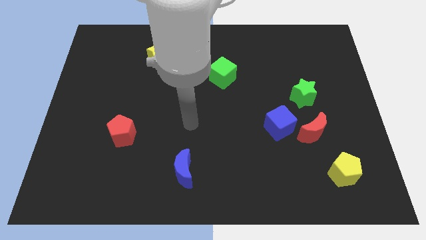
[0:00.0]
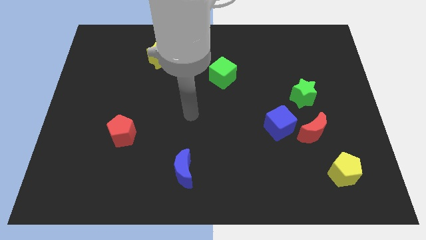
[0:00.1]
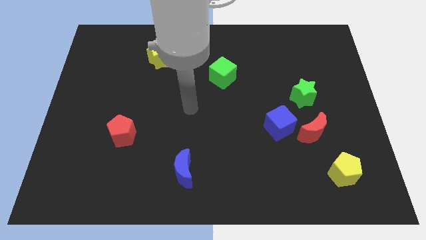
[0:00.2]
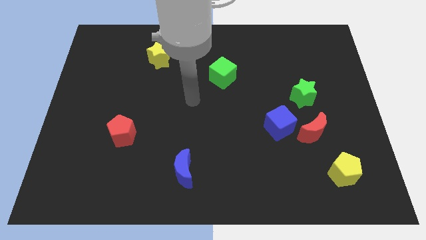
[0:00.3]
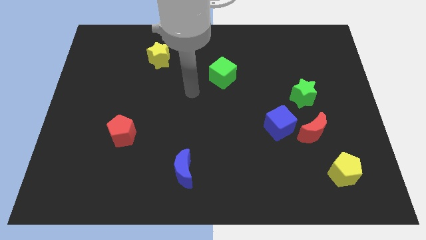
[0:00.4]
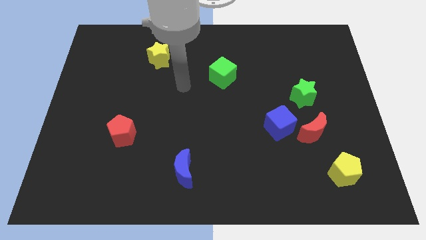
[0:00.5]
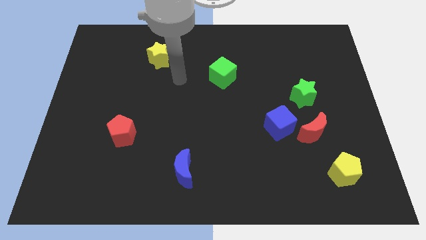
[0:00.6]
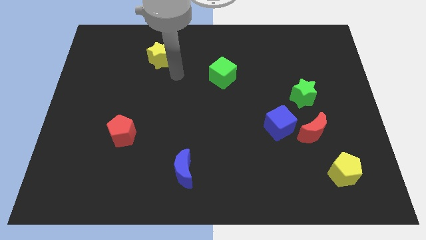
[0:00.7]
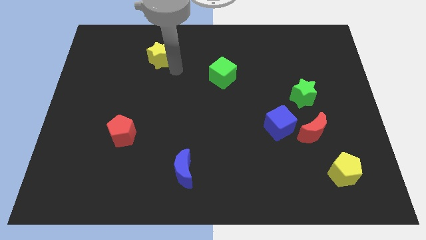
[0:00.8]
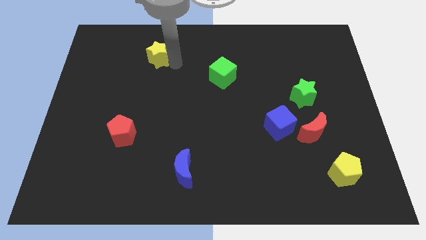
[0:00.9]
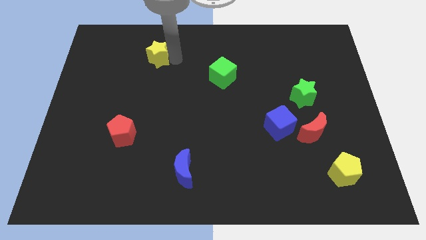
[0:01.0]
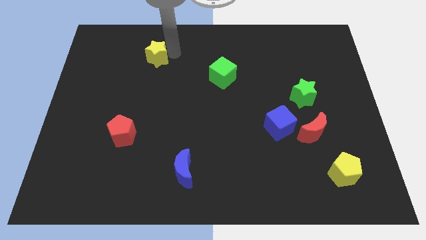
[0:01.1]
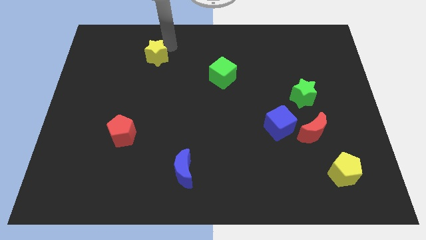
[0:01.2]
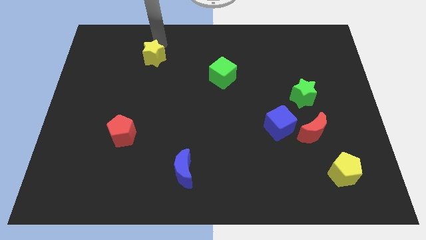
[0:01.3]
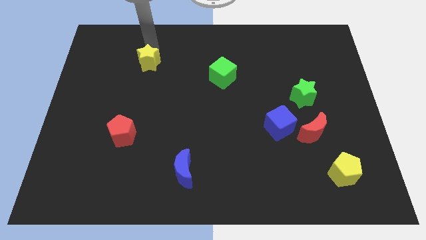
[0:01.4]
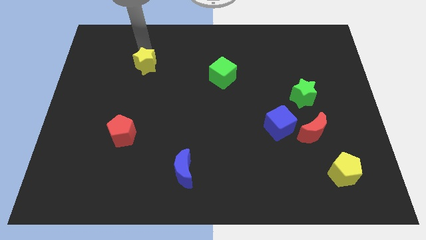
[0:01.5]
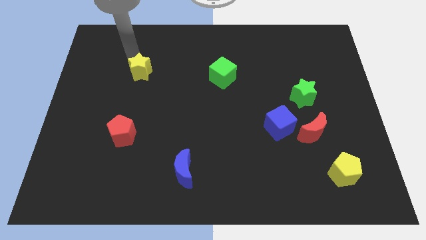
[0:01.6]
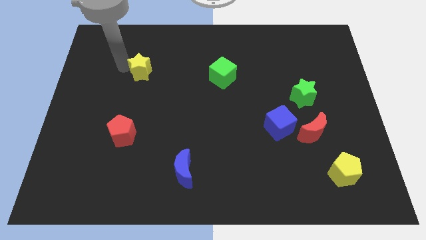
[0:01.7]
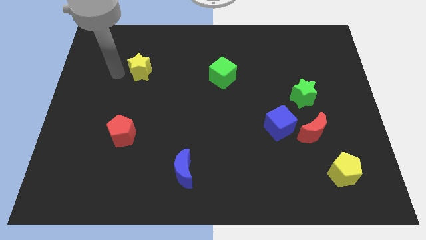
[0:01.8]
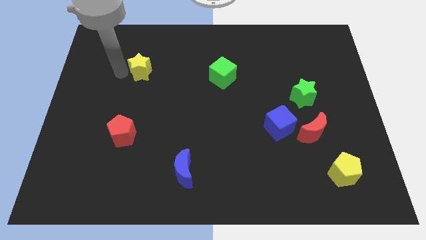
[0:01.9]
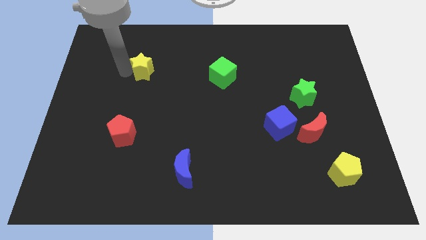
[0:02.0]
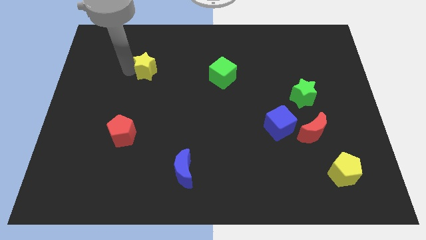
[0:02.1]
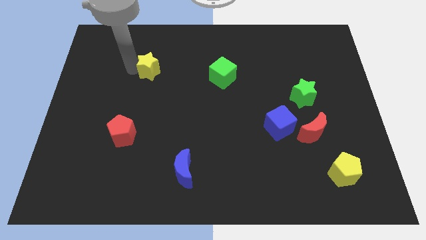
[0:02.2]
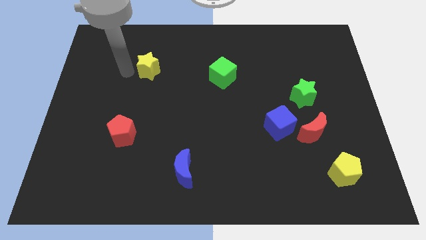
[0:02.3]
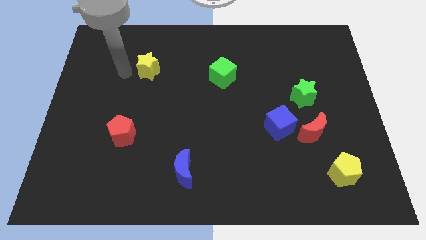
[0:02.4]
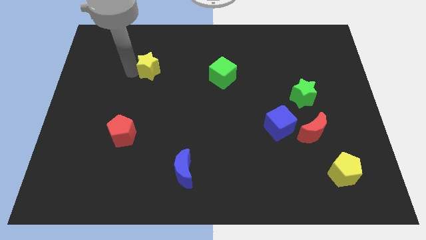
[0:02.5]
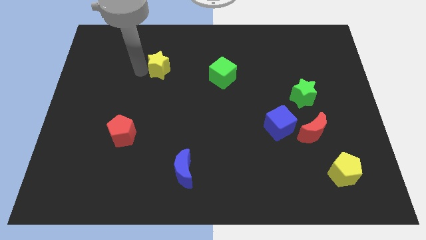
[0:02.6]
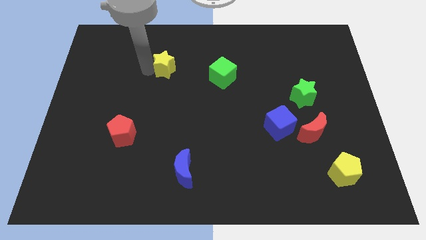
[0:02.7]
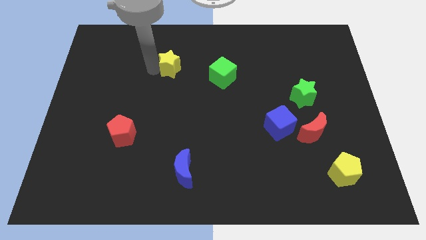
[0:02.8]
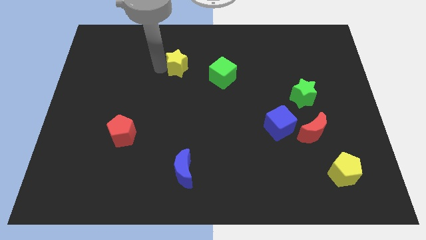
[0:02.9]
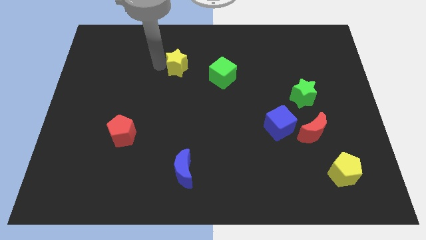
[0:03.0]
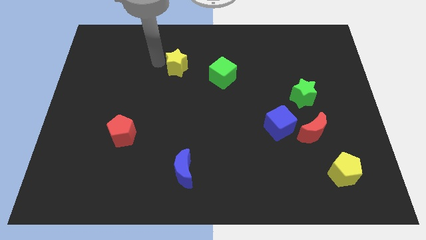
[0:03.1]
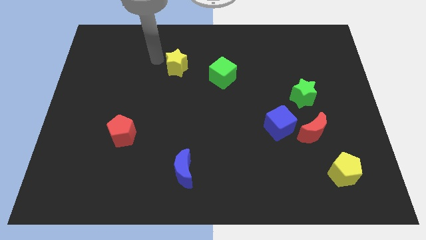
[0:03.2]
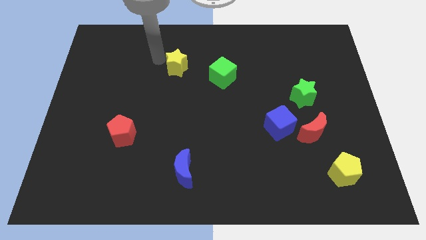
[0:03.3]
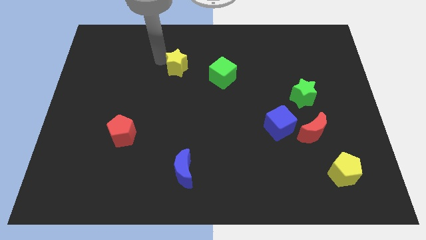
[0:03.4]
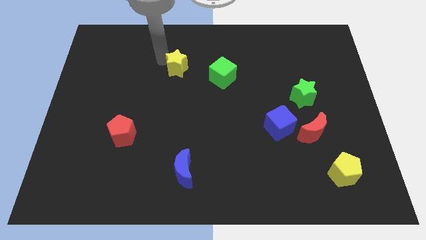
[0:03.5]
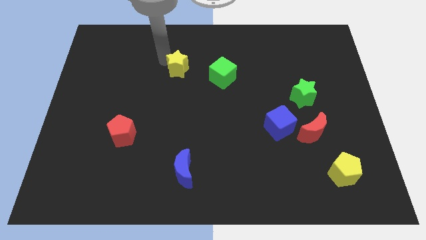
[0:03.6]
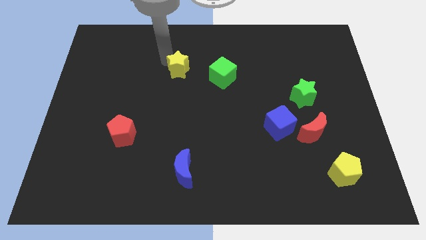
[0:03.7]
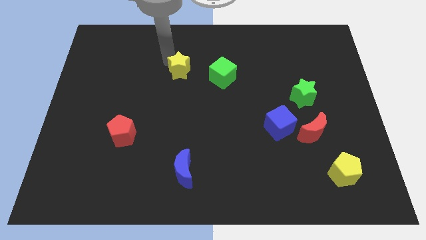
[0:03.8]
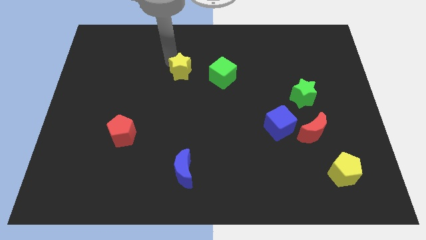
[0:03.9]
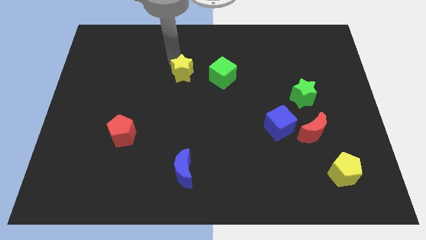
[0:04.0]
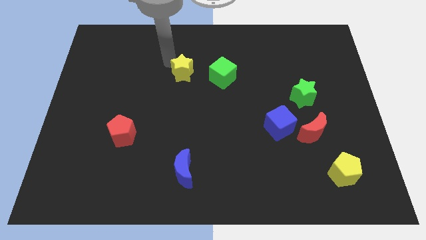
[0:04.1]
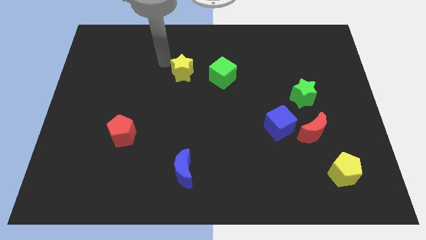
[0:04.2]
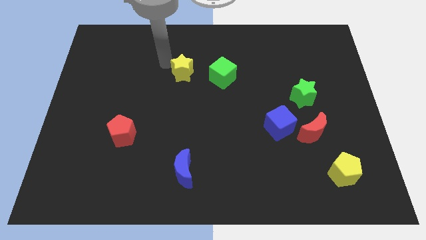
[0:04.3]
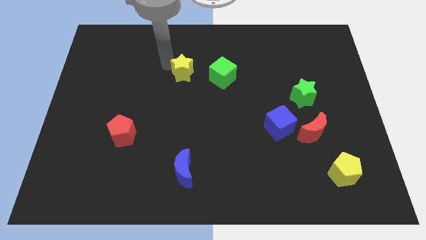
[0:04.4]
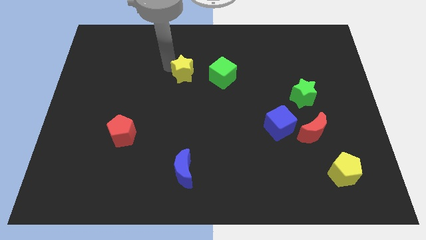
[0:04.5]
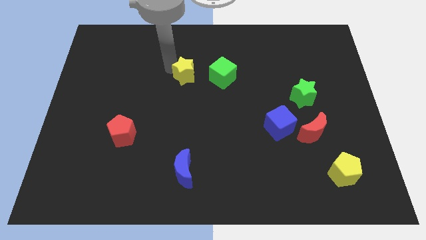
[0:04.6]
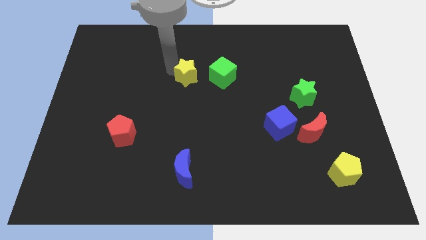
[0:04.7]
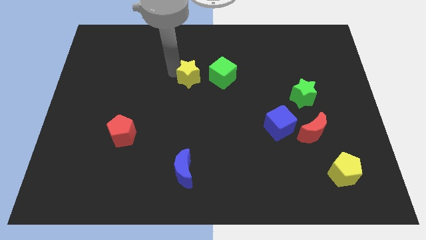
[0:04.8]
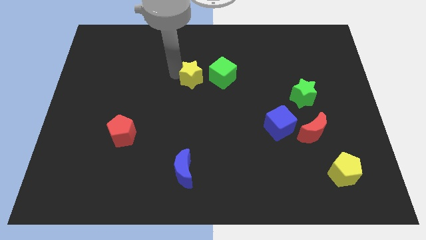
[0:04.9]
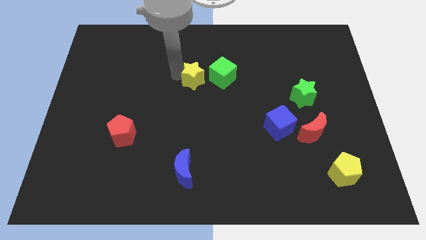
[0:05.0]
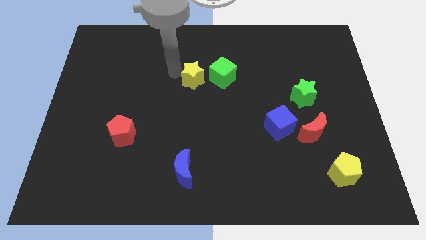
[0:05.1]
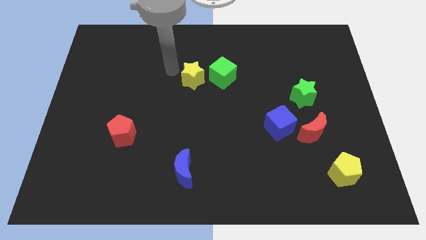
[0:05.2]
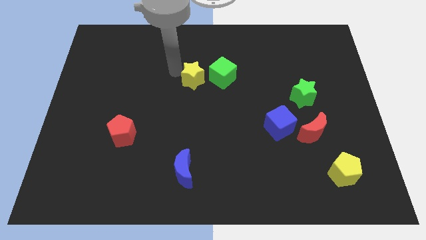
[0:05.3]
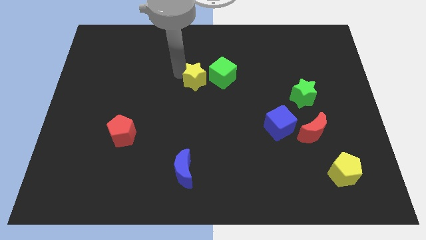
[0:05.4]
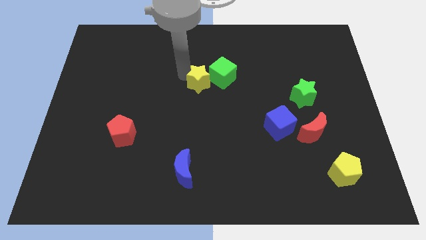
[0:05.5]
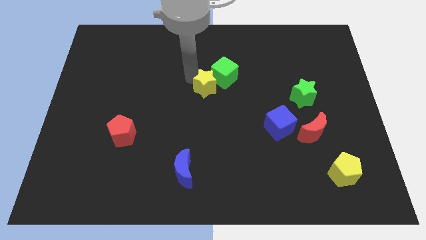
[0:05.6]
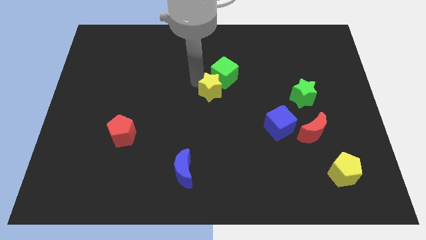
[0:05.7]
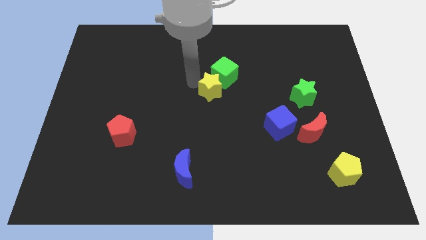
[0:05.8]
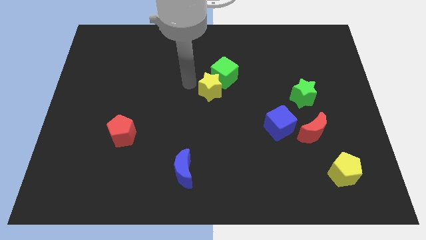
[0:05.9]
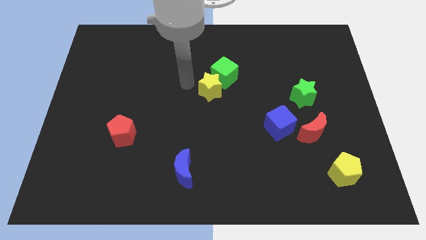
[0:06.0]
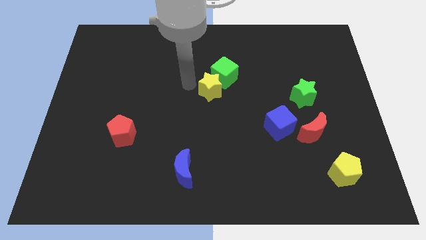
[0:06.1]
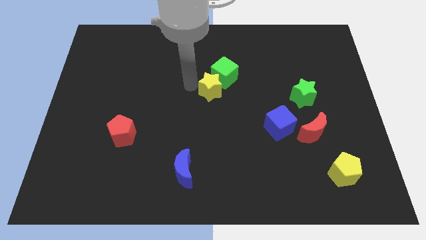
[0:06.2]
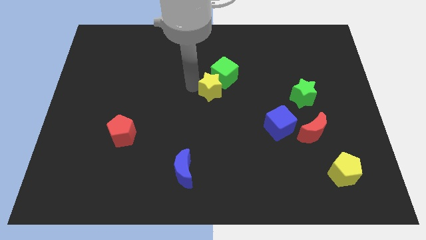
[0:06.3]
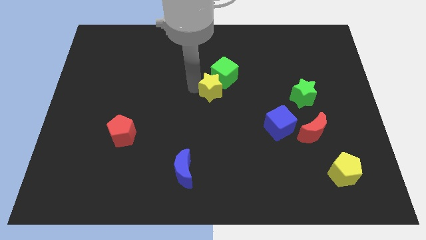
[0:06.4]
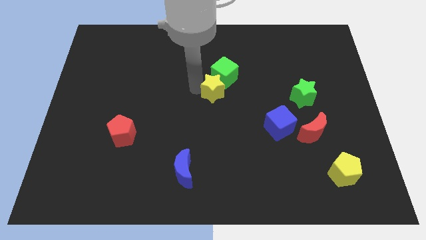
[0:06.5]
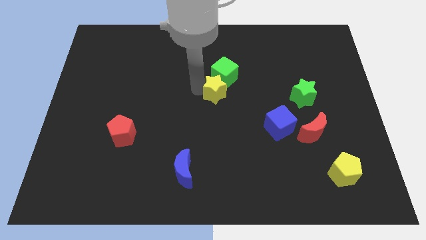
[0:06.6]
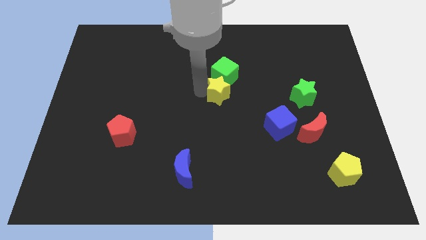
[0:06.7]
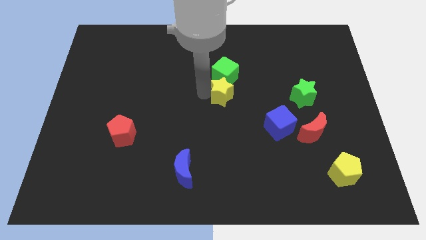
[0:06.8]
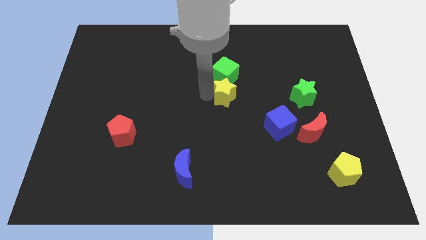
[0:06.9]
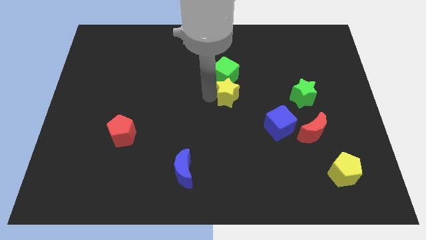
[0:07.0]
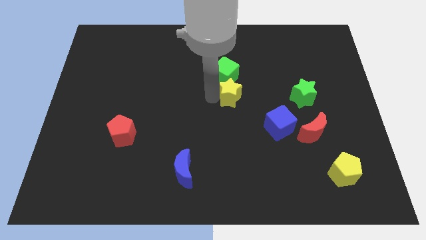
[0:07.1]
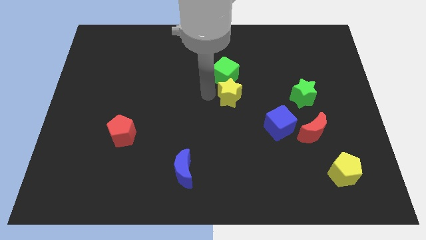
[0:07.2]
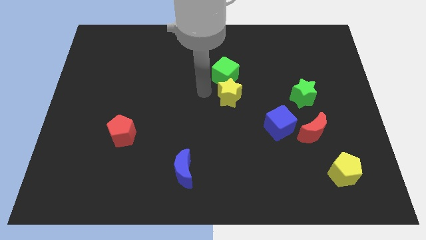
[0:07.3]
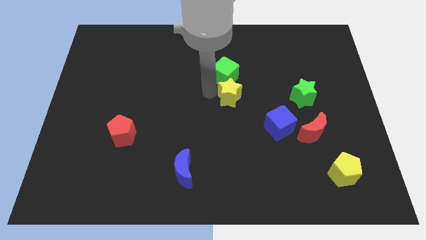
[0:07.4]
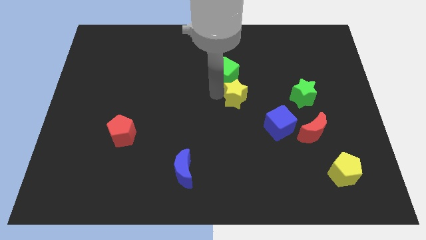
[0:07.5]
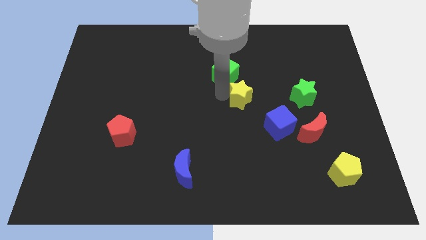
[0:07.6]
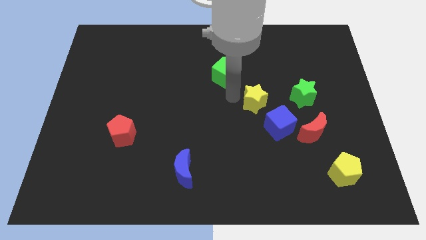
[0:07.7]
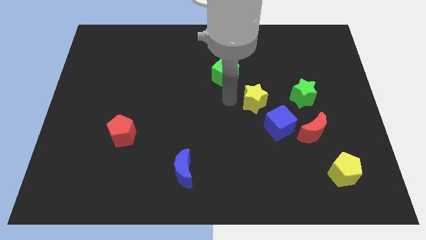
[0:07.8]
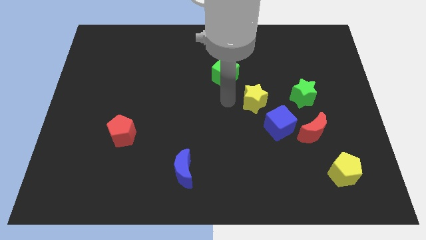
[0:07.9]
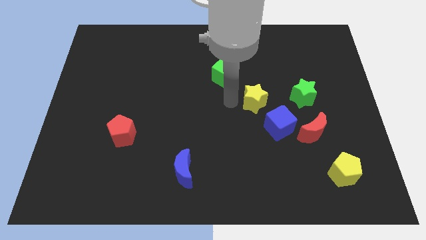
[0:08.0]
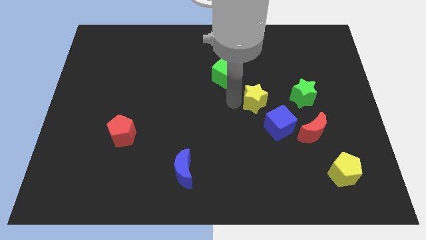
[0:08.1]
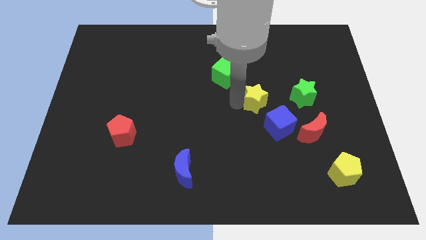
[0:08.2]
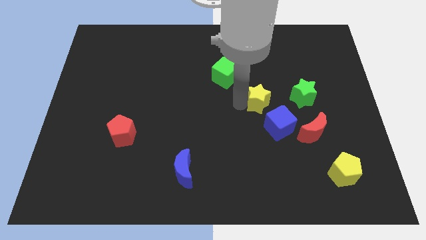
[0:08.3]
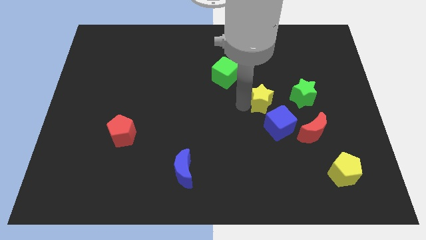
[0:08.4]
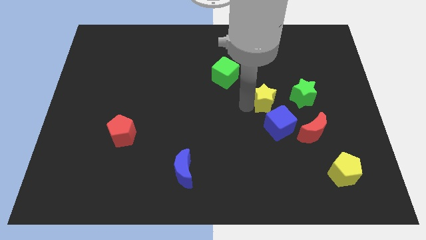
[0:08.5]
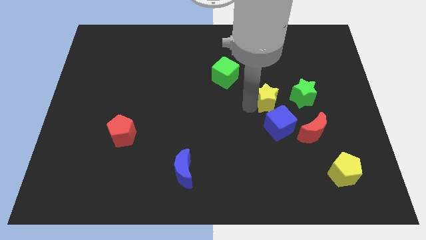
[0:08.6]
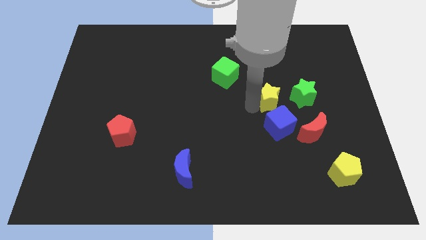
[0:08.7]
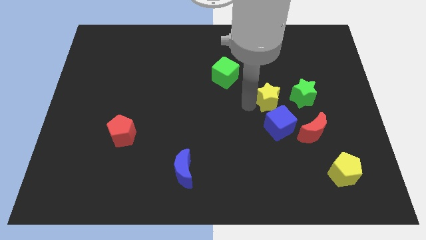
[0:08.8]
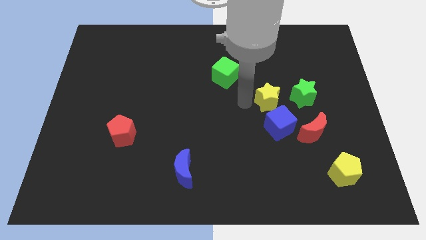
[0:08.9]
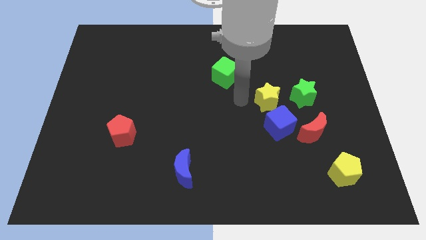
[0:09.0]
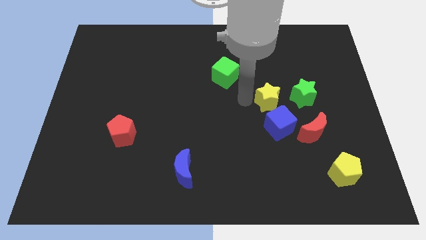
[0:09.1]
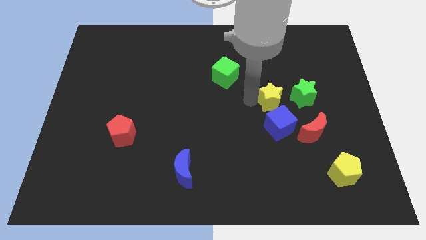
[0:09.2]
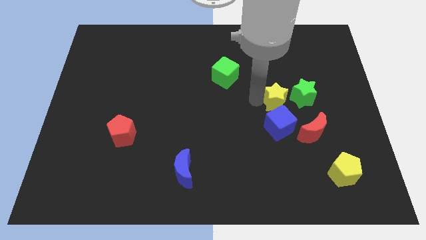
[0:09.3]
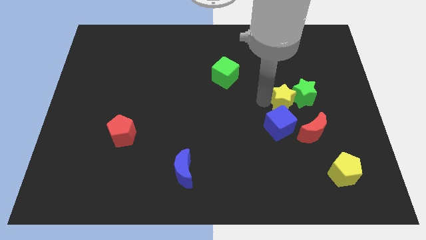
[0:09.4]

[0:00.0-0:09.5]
push the yellow star to the green star
